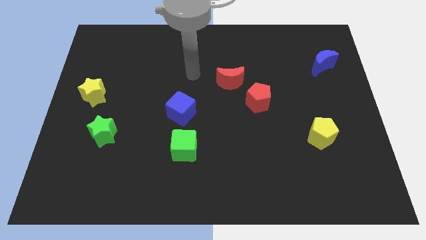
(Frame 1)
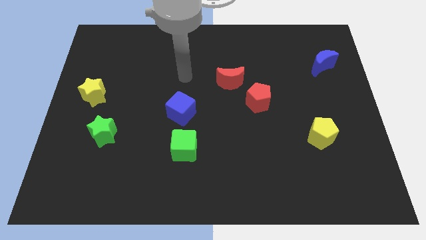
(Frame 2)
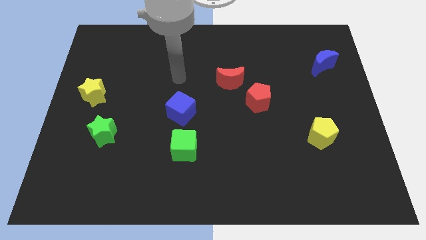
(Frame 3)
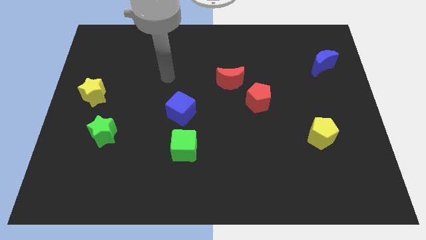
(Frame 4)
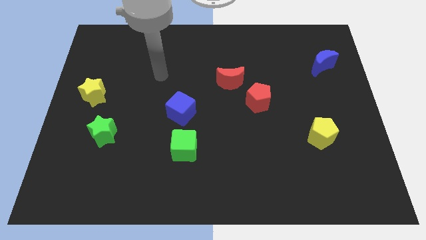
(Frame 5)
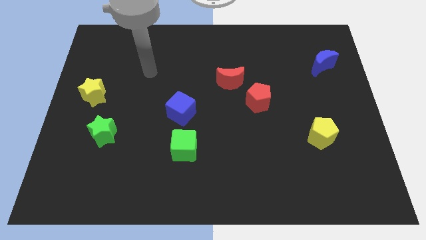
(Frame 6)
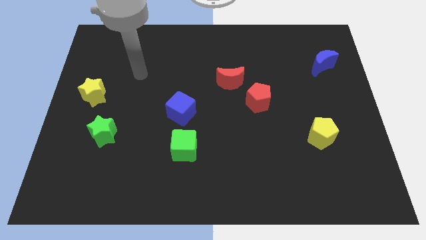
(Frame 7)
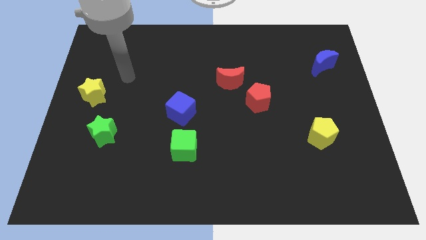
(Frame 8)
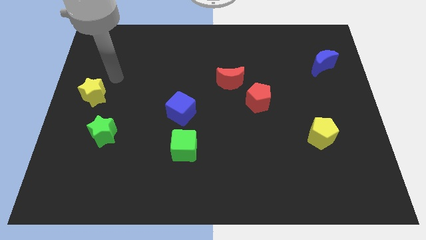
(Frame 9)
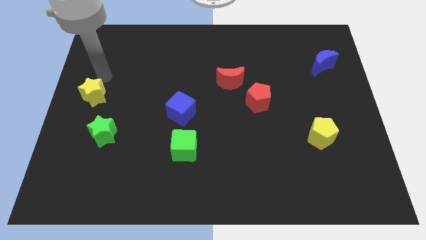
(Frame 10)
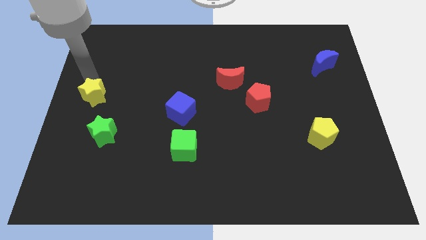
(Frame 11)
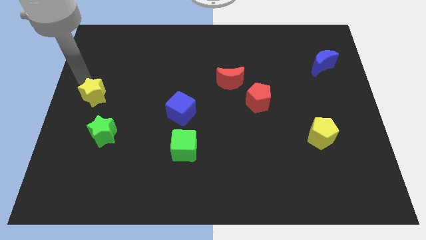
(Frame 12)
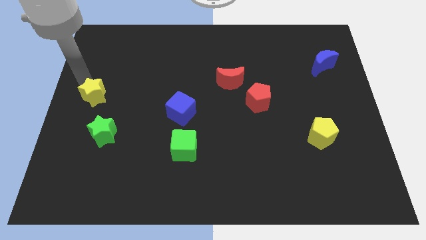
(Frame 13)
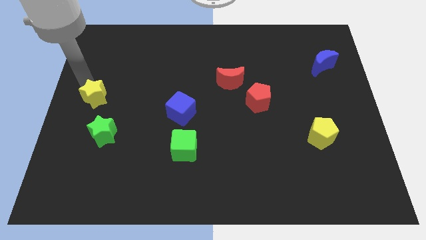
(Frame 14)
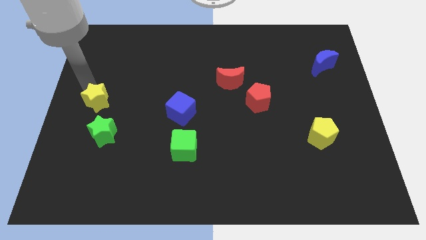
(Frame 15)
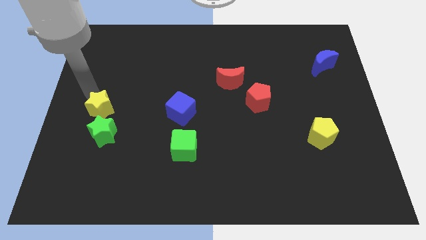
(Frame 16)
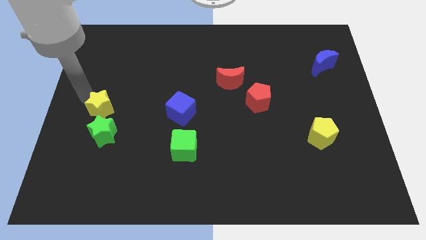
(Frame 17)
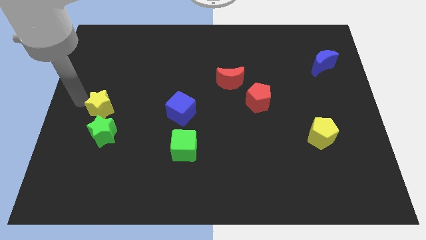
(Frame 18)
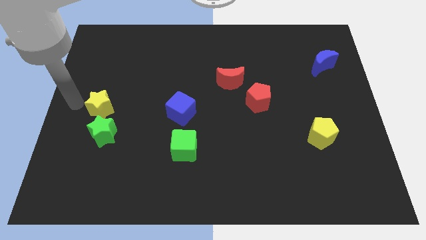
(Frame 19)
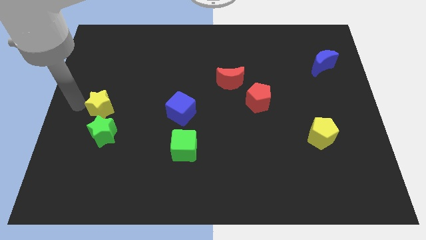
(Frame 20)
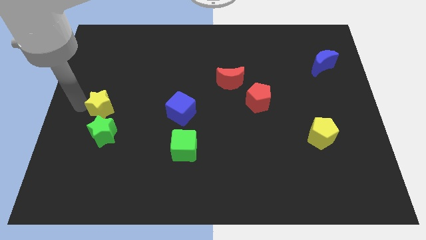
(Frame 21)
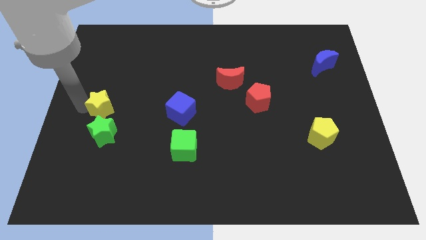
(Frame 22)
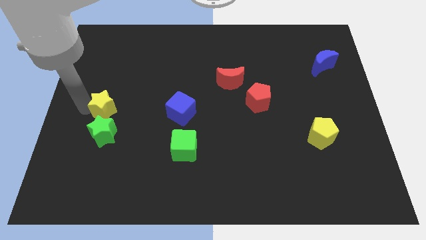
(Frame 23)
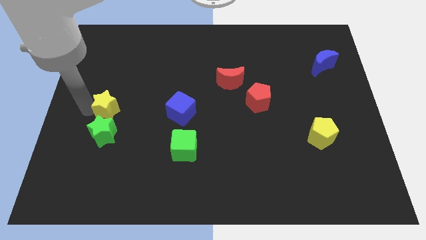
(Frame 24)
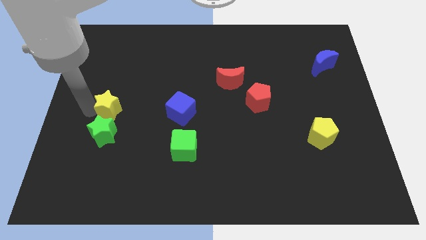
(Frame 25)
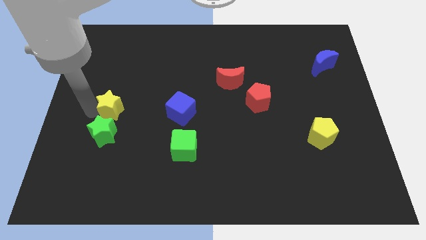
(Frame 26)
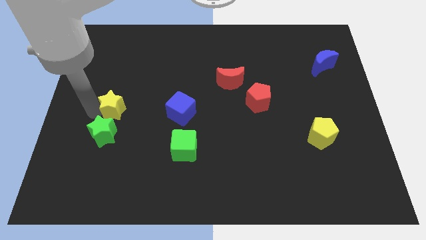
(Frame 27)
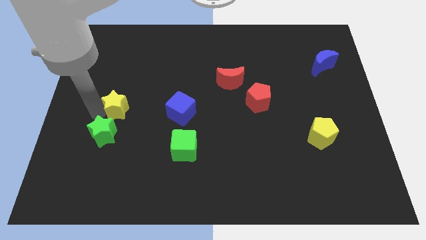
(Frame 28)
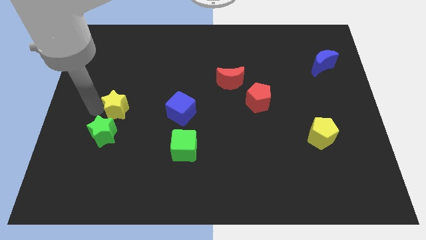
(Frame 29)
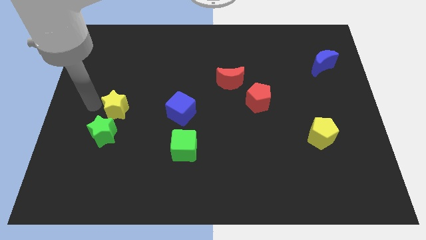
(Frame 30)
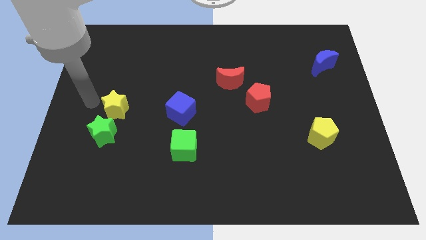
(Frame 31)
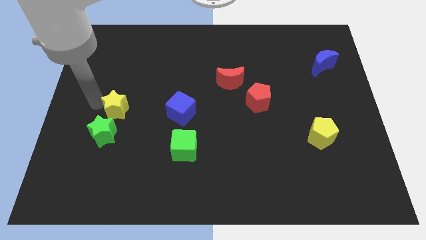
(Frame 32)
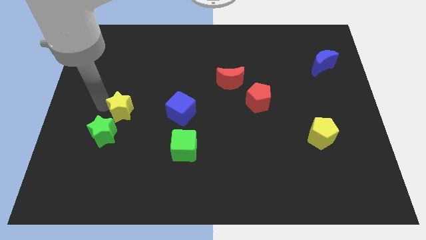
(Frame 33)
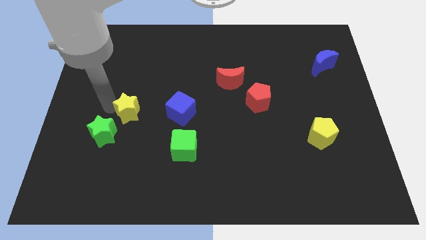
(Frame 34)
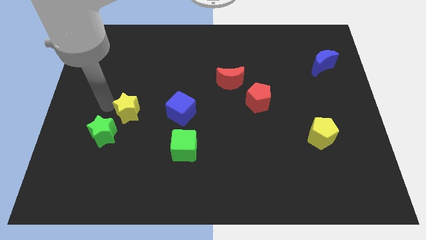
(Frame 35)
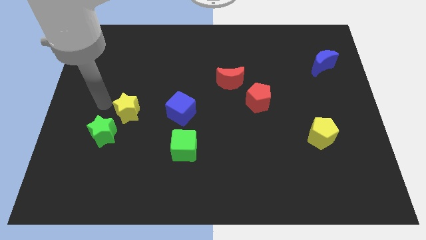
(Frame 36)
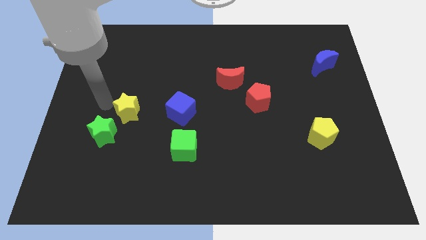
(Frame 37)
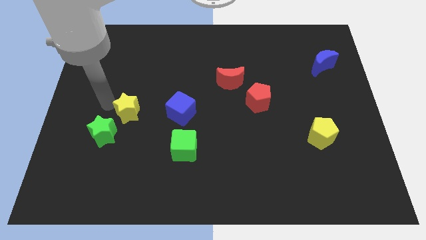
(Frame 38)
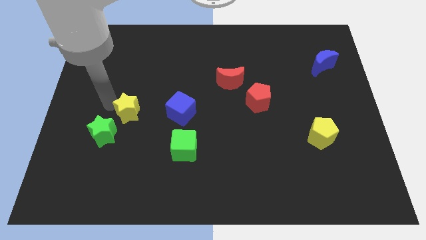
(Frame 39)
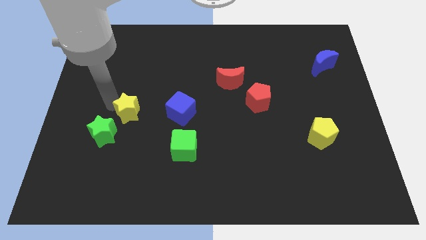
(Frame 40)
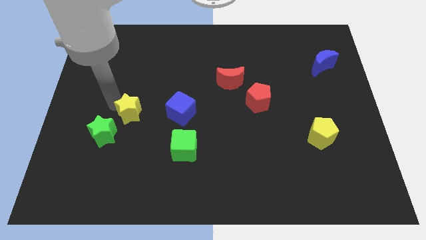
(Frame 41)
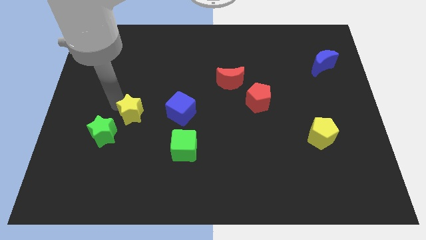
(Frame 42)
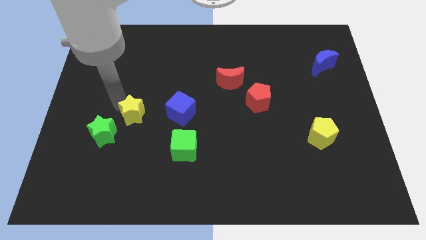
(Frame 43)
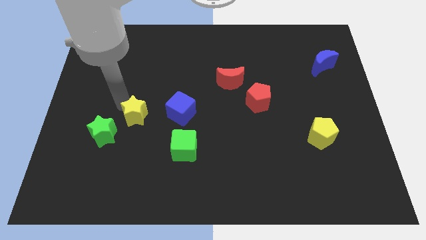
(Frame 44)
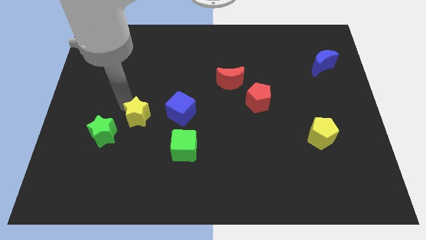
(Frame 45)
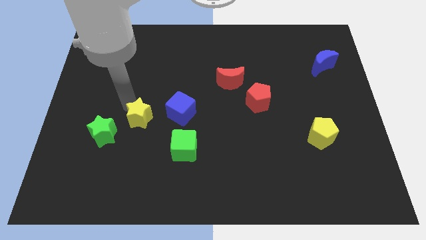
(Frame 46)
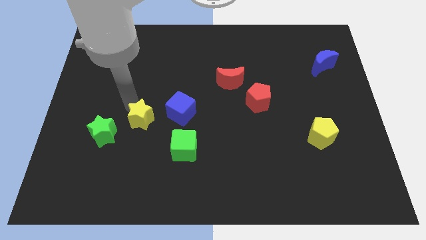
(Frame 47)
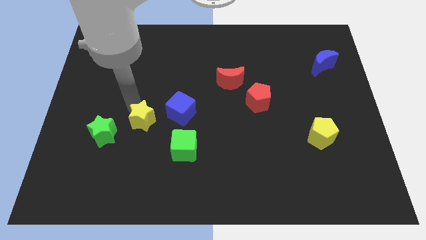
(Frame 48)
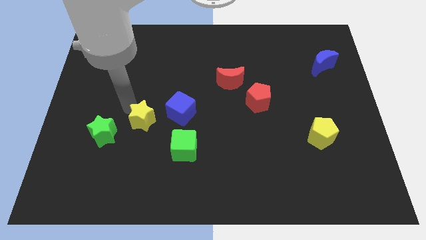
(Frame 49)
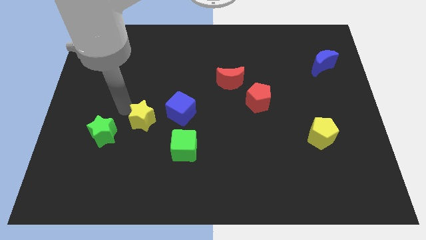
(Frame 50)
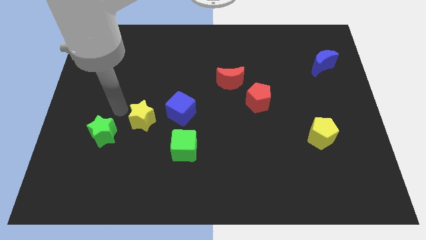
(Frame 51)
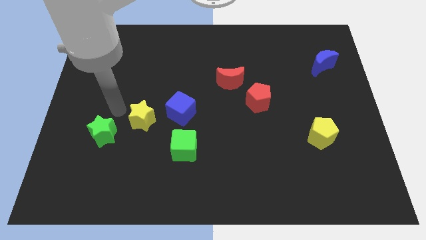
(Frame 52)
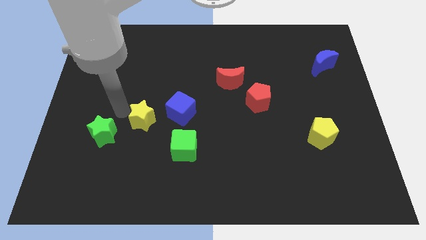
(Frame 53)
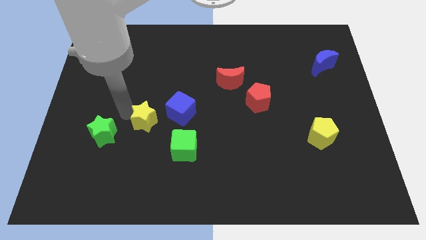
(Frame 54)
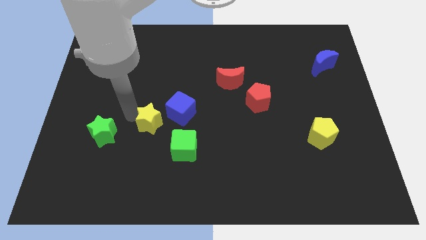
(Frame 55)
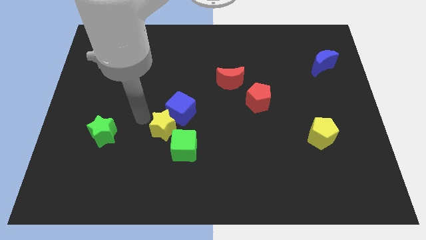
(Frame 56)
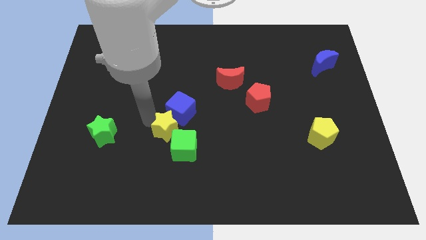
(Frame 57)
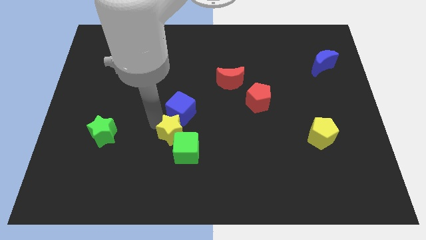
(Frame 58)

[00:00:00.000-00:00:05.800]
move the yellow star towards the green cube

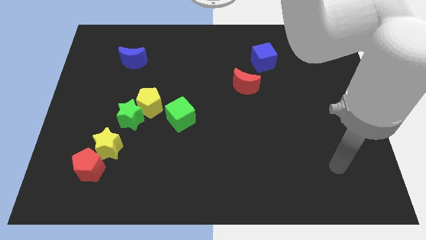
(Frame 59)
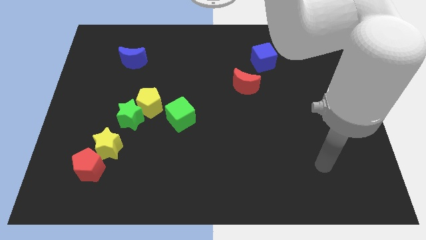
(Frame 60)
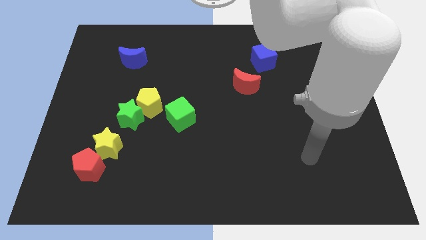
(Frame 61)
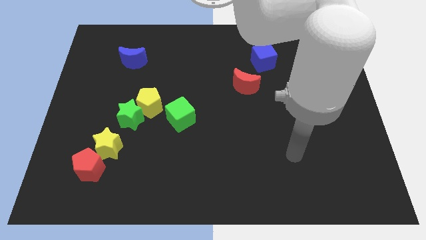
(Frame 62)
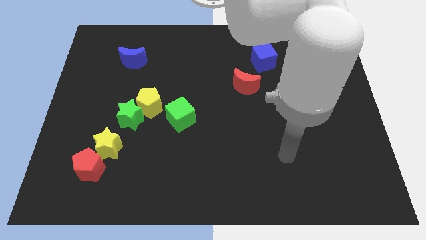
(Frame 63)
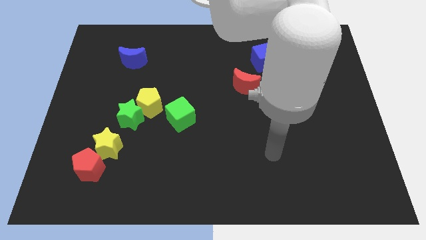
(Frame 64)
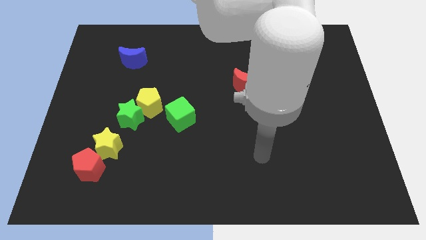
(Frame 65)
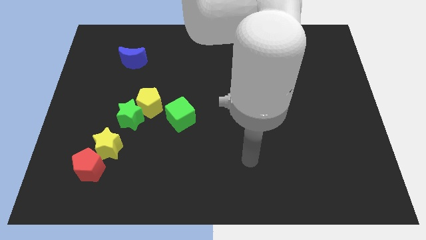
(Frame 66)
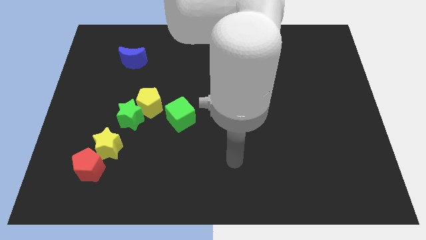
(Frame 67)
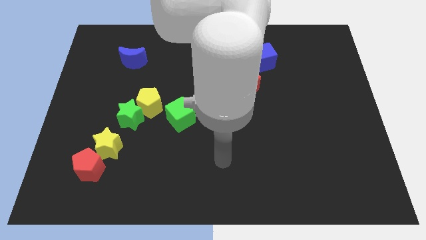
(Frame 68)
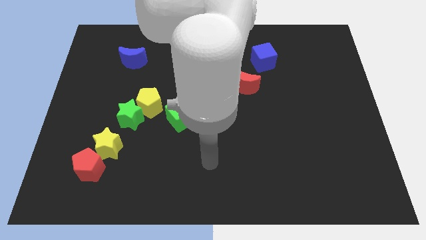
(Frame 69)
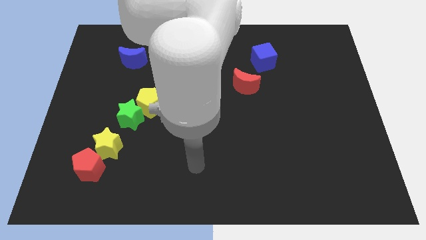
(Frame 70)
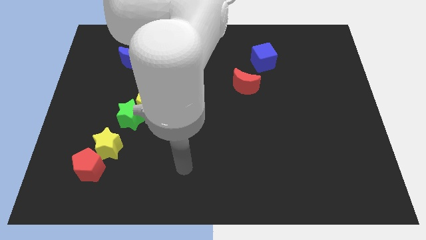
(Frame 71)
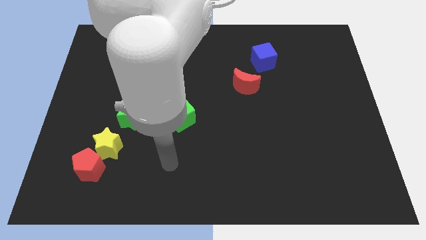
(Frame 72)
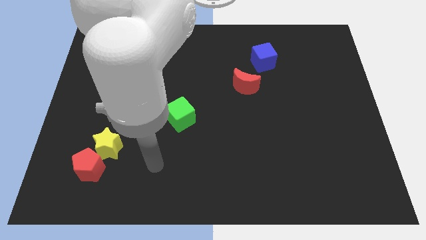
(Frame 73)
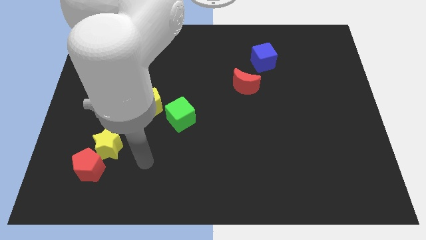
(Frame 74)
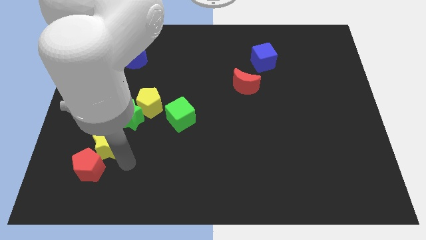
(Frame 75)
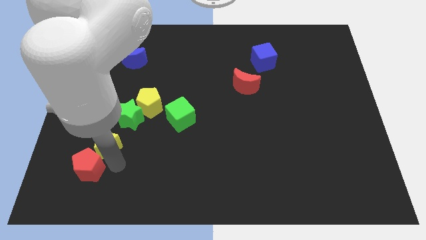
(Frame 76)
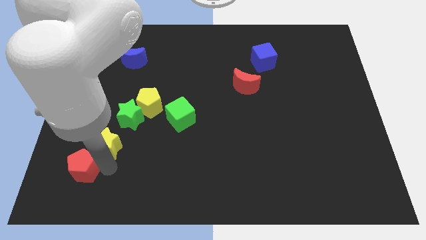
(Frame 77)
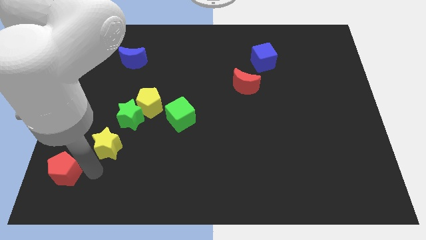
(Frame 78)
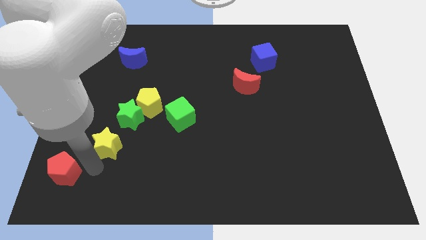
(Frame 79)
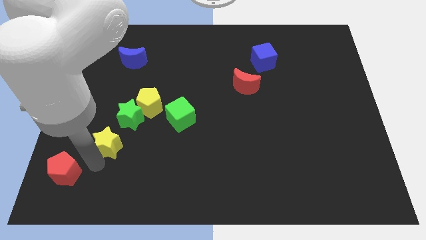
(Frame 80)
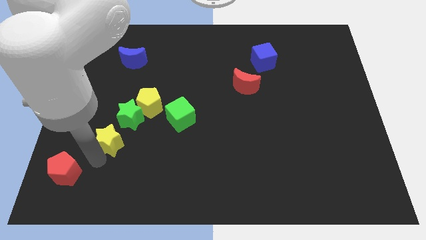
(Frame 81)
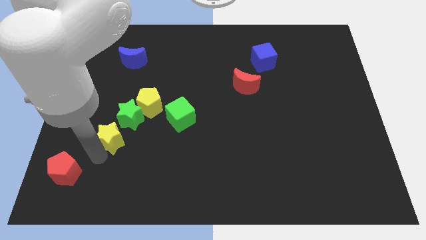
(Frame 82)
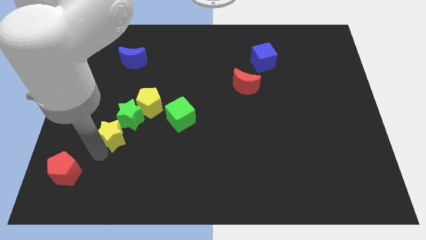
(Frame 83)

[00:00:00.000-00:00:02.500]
move the yellow star close to the green star
